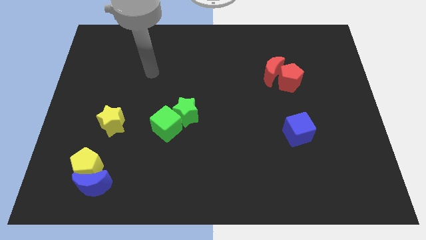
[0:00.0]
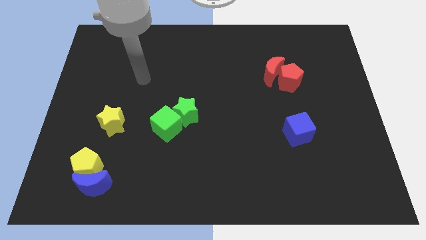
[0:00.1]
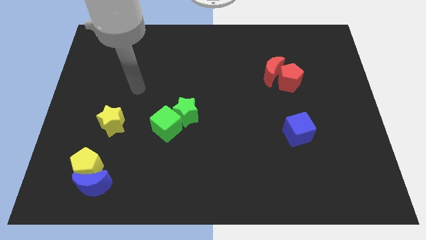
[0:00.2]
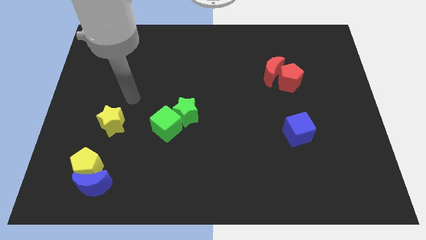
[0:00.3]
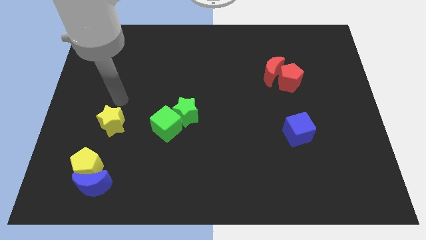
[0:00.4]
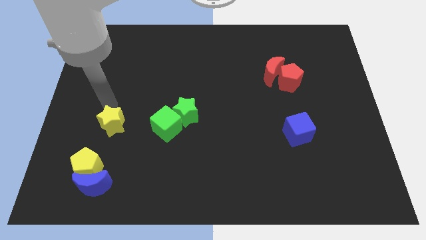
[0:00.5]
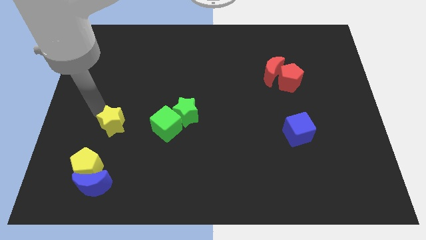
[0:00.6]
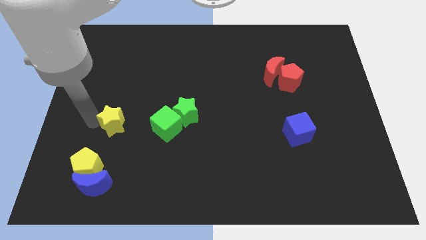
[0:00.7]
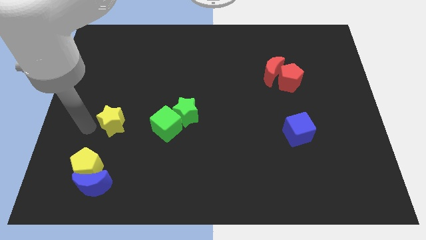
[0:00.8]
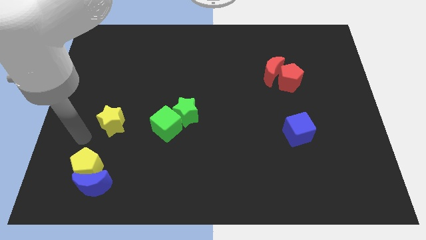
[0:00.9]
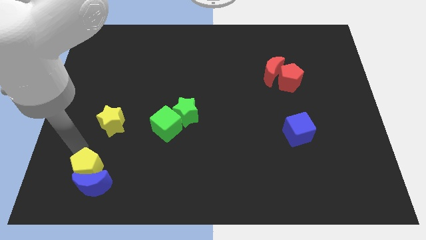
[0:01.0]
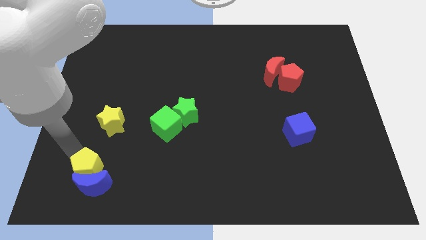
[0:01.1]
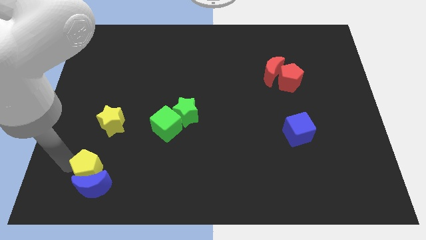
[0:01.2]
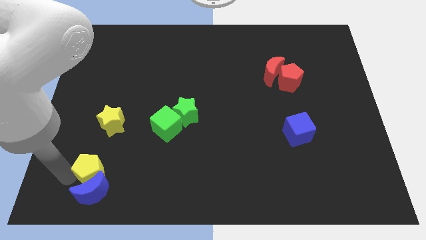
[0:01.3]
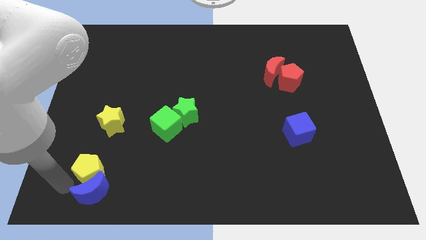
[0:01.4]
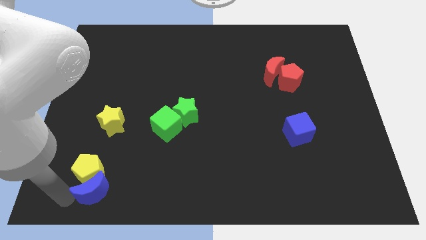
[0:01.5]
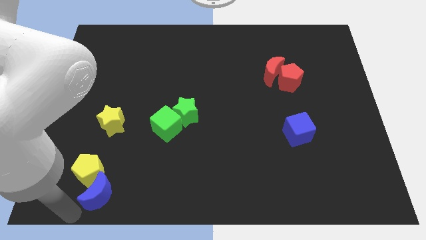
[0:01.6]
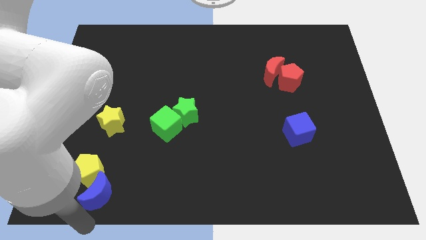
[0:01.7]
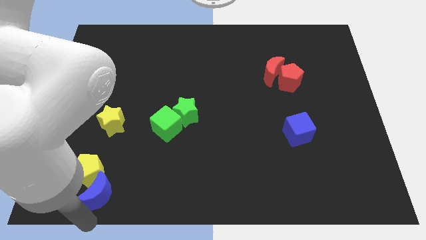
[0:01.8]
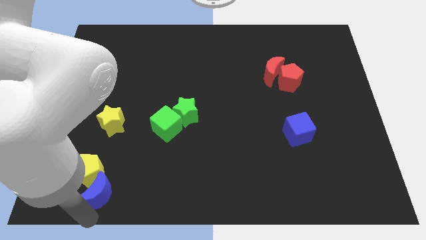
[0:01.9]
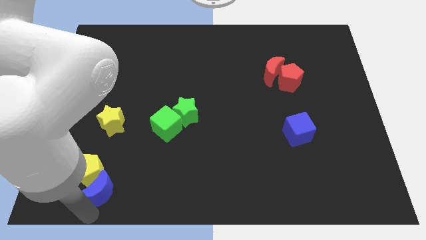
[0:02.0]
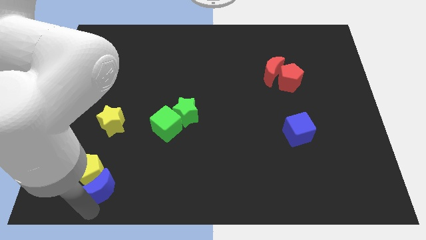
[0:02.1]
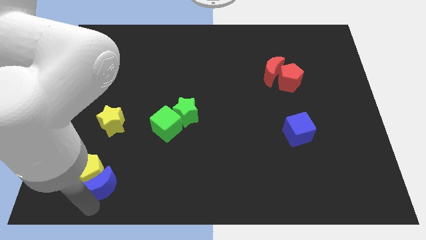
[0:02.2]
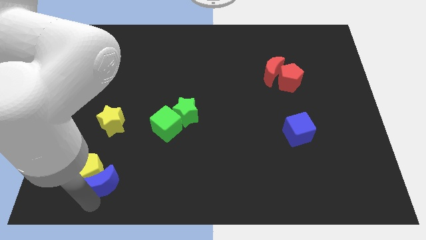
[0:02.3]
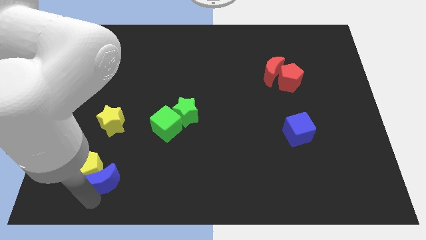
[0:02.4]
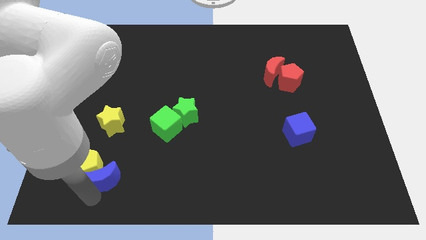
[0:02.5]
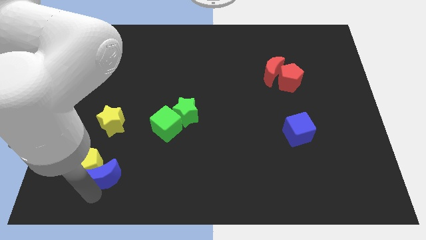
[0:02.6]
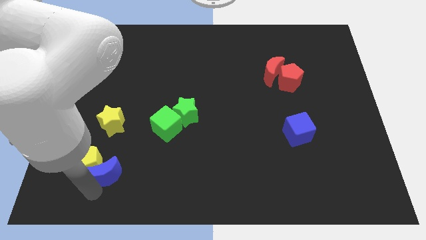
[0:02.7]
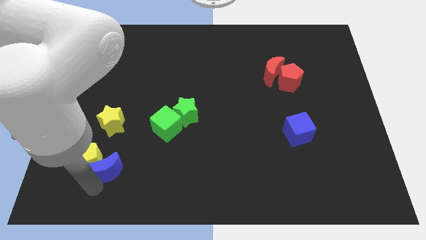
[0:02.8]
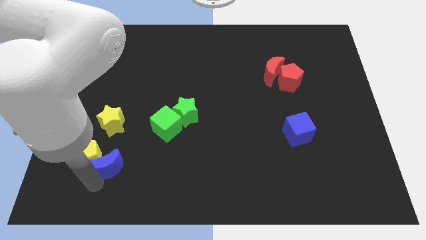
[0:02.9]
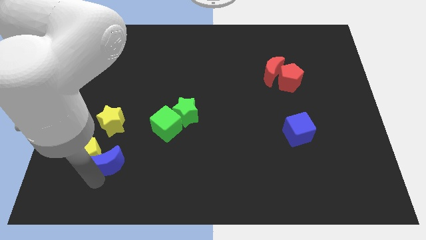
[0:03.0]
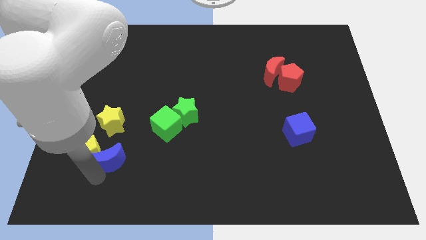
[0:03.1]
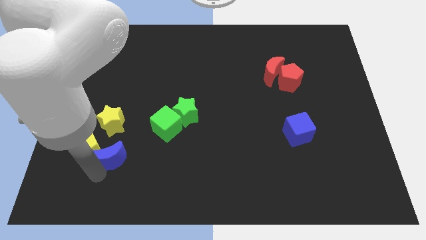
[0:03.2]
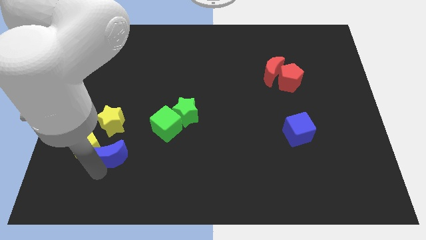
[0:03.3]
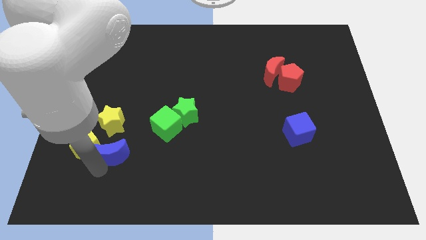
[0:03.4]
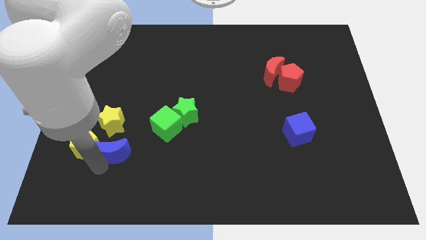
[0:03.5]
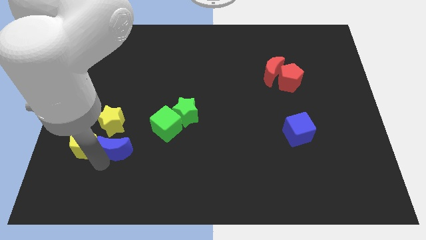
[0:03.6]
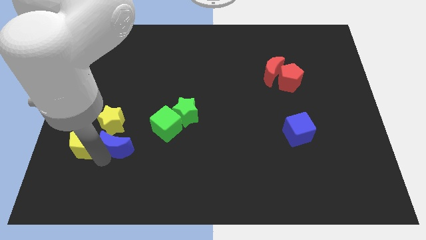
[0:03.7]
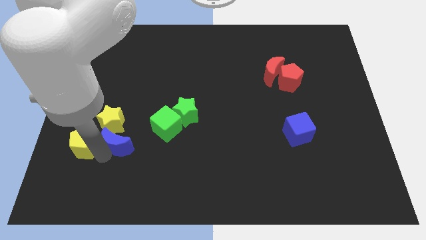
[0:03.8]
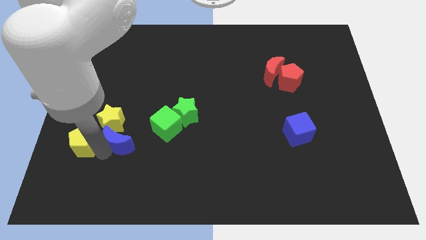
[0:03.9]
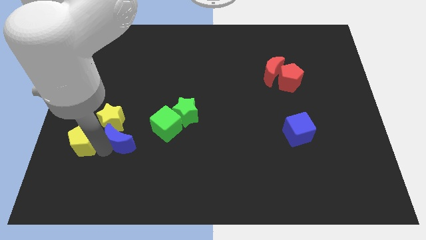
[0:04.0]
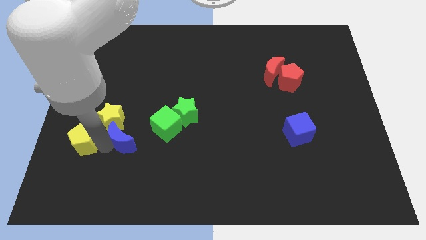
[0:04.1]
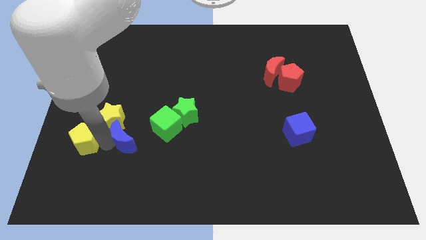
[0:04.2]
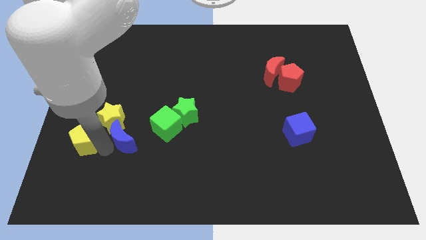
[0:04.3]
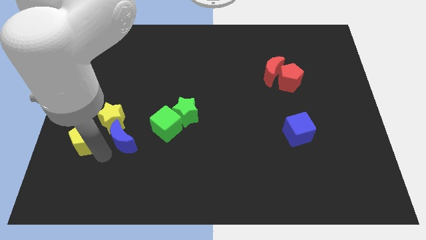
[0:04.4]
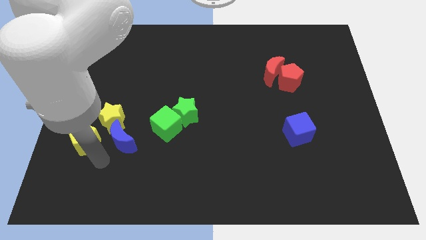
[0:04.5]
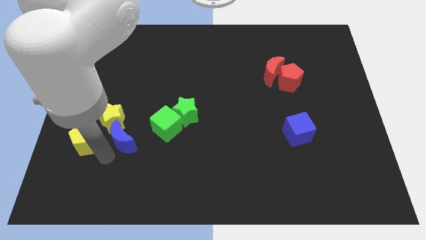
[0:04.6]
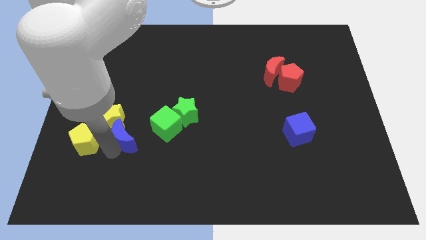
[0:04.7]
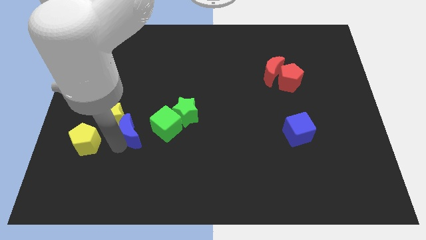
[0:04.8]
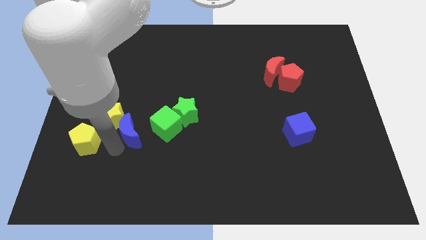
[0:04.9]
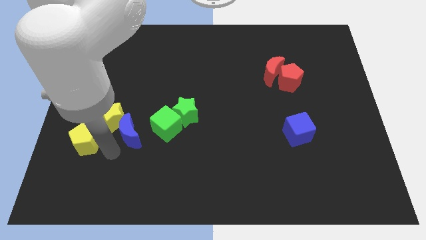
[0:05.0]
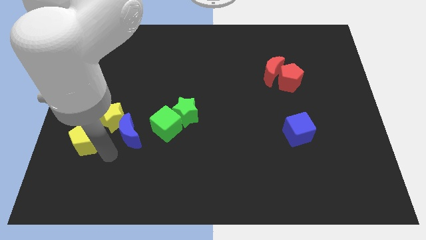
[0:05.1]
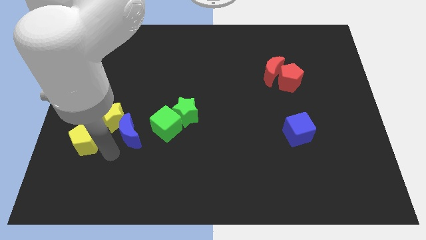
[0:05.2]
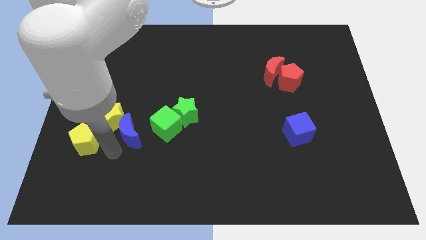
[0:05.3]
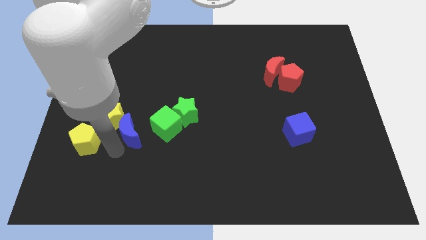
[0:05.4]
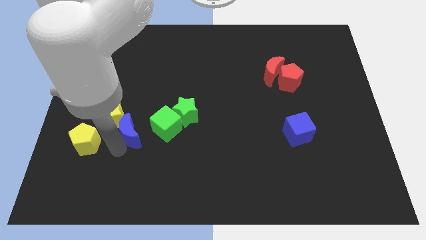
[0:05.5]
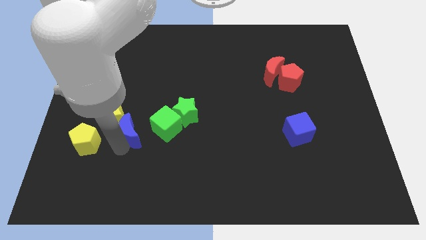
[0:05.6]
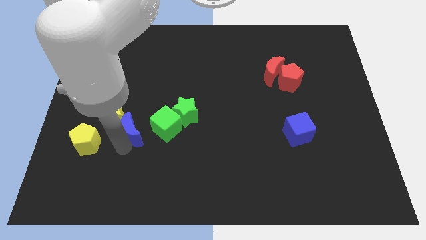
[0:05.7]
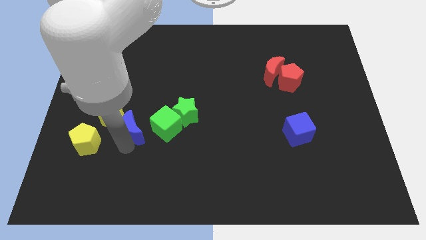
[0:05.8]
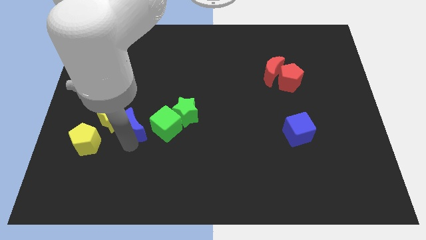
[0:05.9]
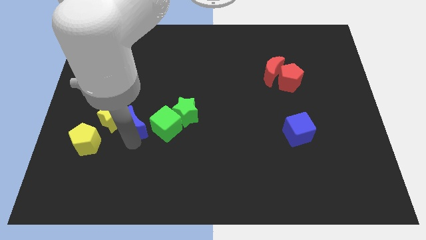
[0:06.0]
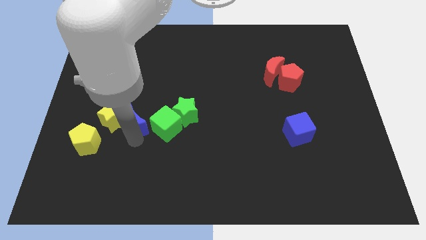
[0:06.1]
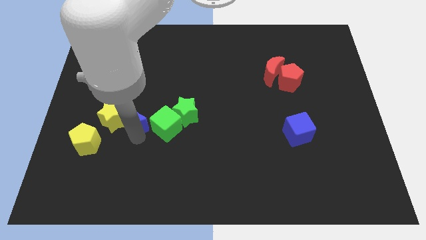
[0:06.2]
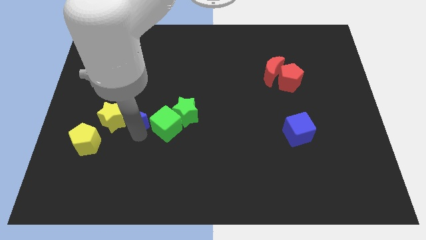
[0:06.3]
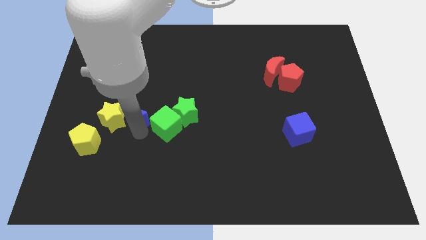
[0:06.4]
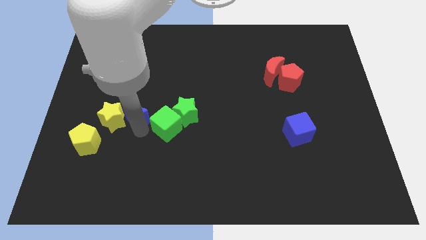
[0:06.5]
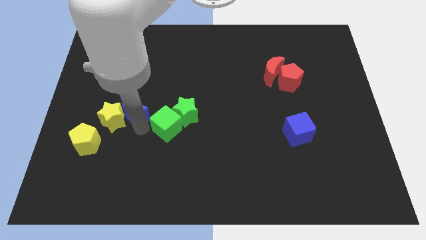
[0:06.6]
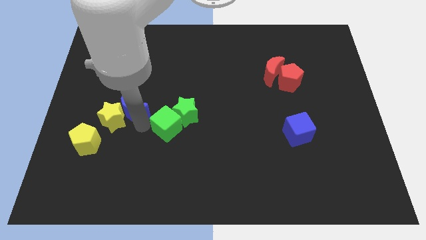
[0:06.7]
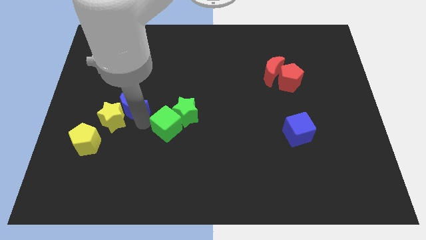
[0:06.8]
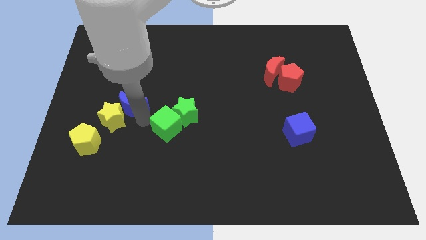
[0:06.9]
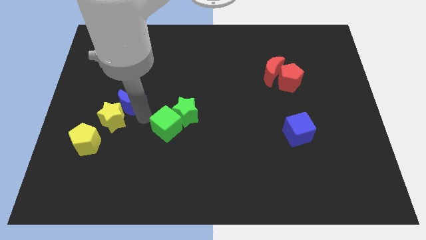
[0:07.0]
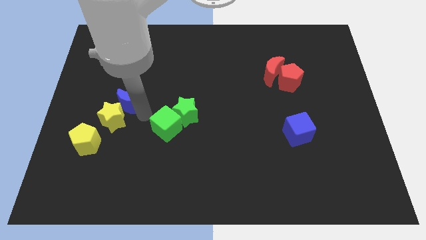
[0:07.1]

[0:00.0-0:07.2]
slide the blue moon up

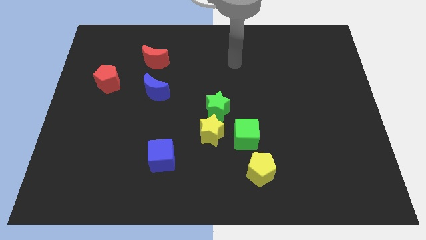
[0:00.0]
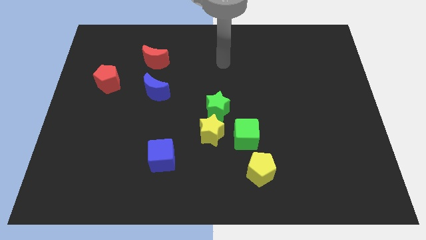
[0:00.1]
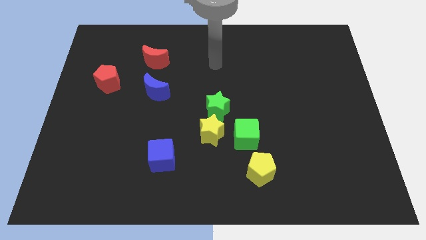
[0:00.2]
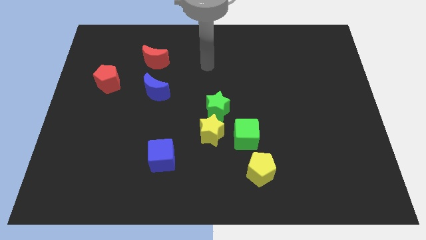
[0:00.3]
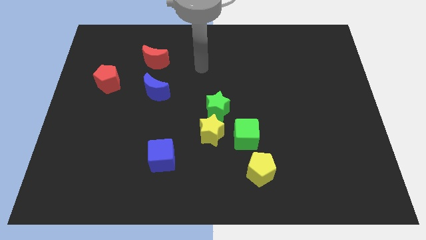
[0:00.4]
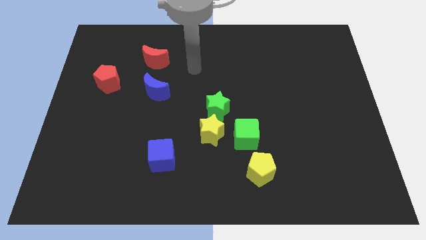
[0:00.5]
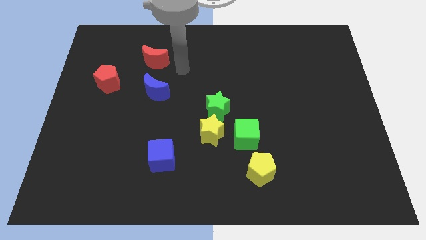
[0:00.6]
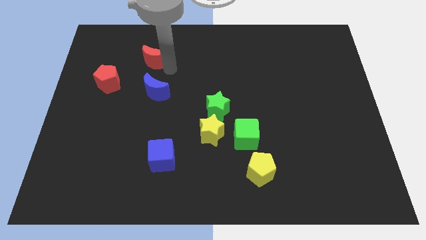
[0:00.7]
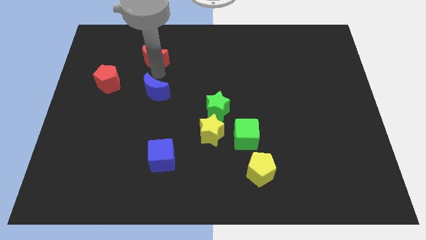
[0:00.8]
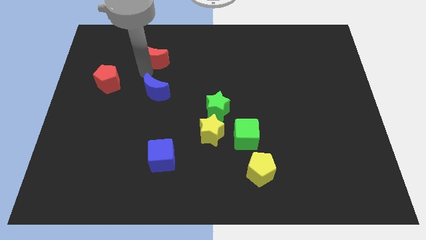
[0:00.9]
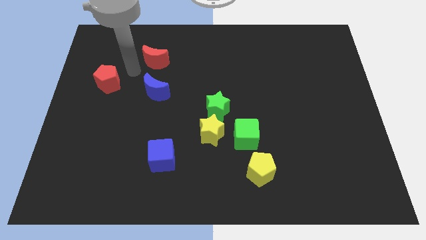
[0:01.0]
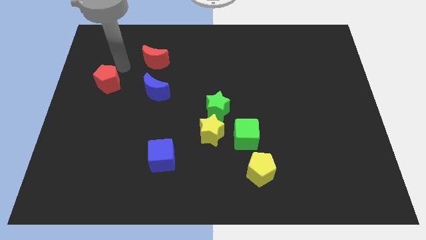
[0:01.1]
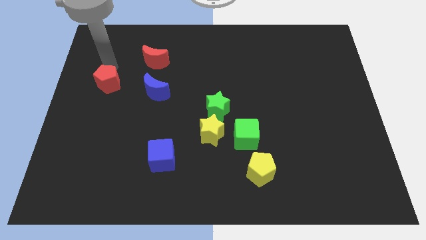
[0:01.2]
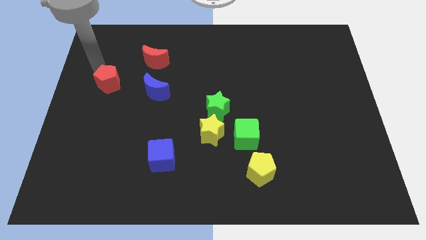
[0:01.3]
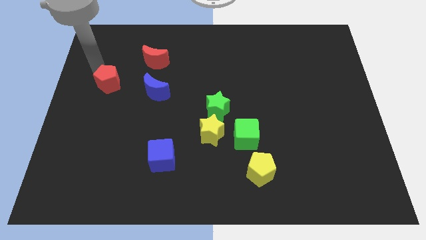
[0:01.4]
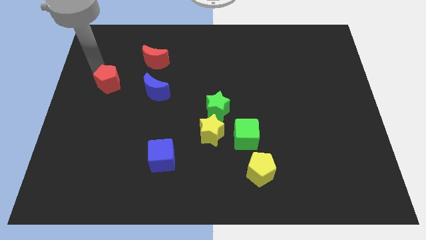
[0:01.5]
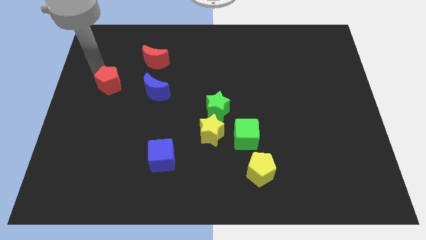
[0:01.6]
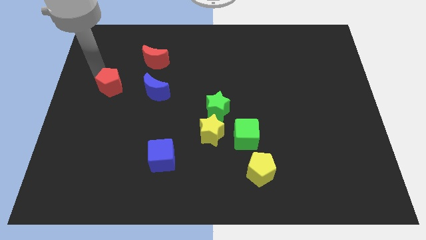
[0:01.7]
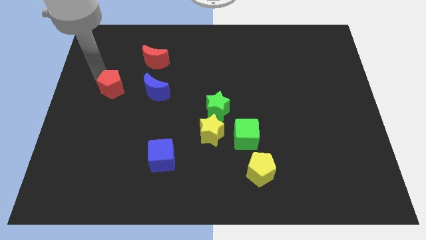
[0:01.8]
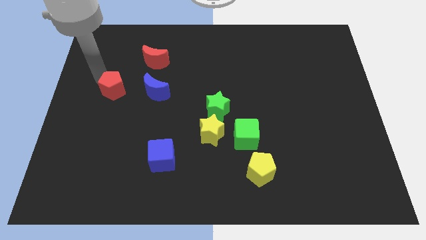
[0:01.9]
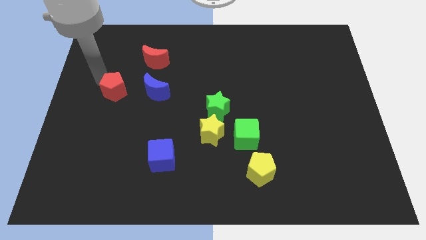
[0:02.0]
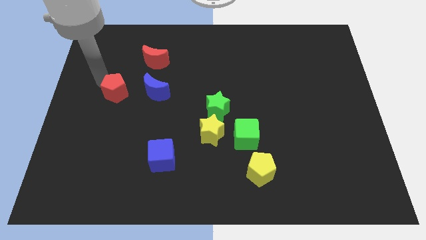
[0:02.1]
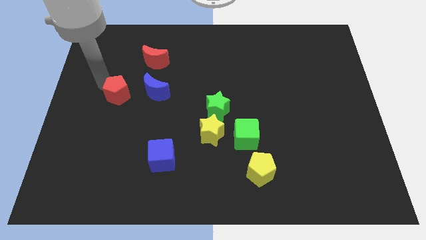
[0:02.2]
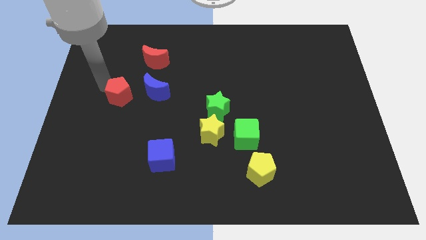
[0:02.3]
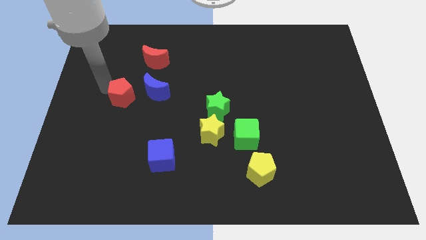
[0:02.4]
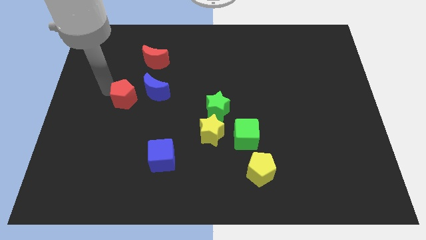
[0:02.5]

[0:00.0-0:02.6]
slightly move the red pentagon down and to the right
